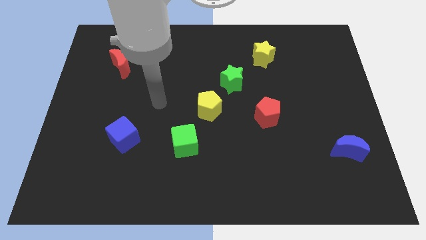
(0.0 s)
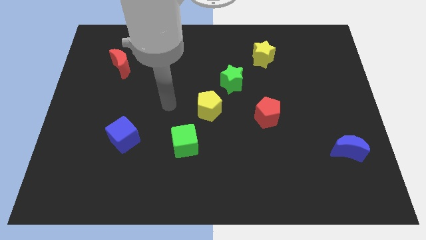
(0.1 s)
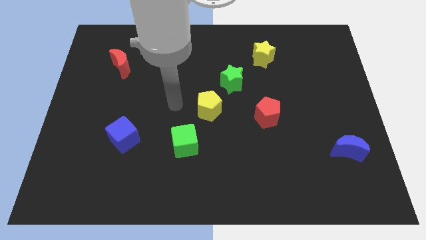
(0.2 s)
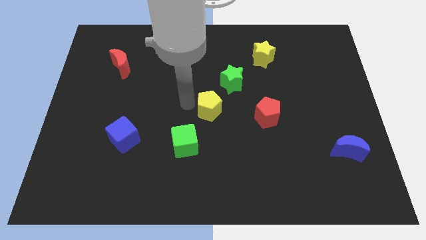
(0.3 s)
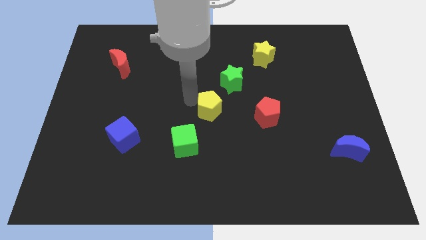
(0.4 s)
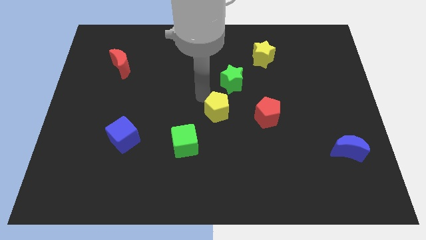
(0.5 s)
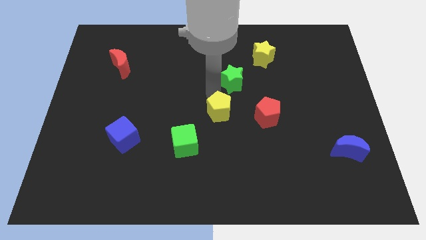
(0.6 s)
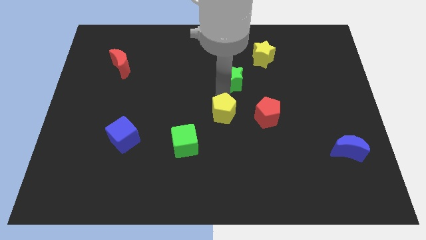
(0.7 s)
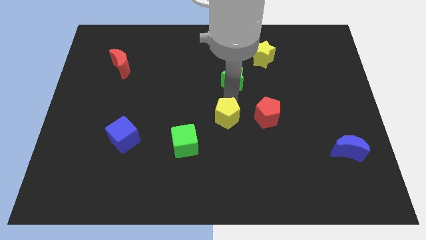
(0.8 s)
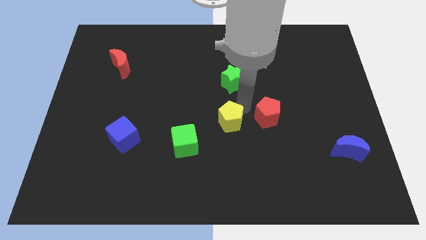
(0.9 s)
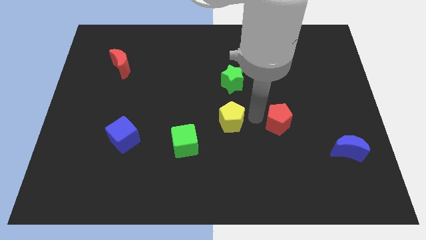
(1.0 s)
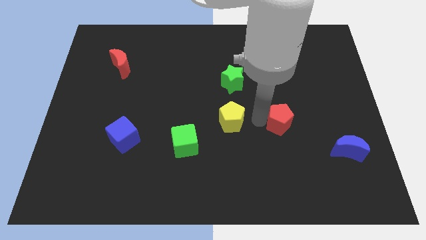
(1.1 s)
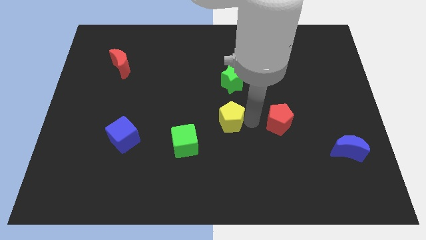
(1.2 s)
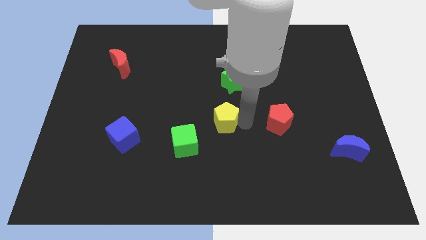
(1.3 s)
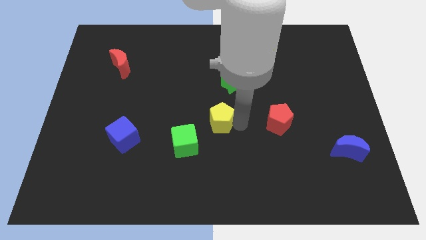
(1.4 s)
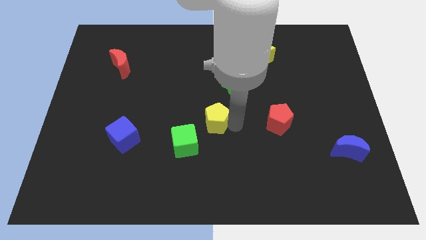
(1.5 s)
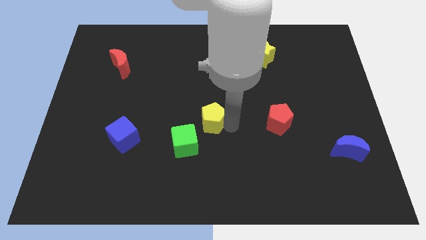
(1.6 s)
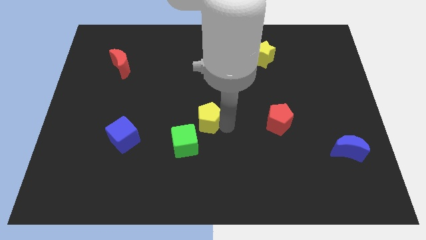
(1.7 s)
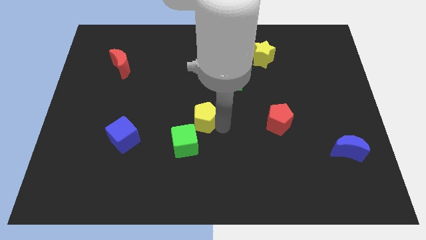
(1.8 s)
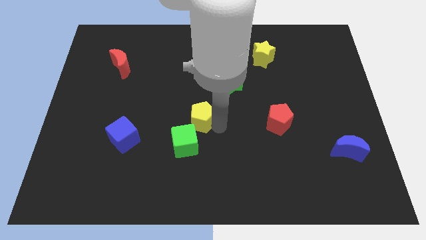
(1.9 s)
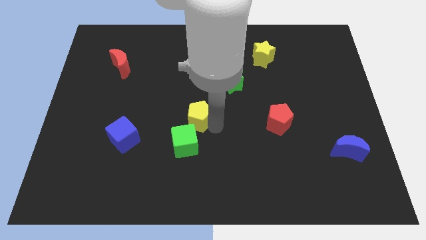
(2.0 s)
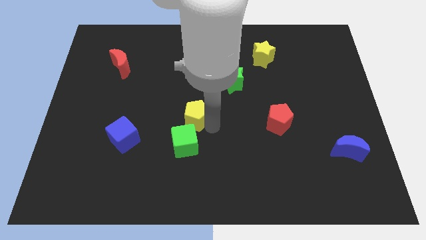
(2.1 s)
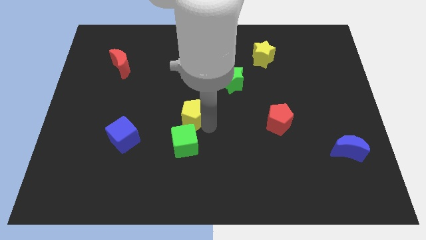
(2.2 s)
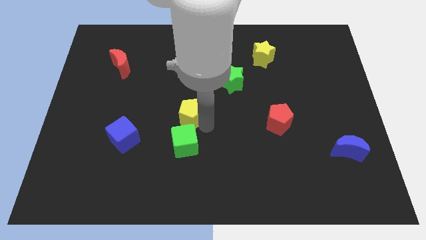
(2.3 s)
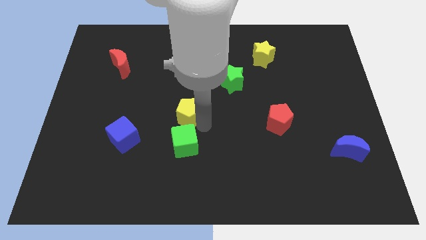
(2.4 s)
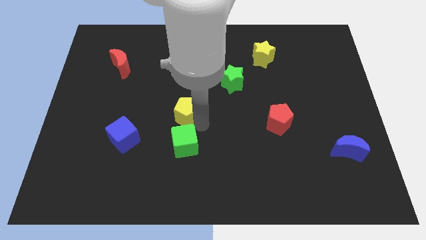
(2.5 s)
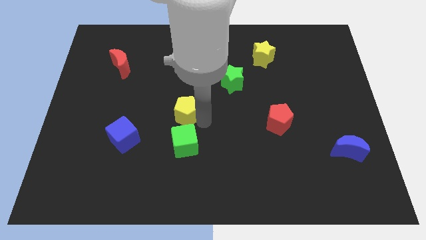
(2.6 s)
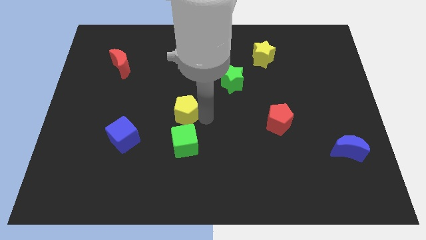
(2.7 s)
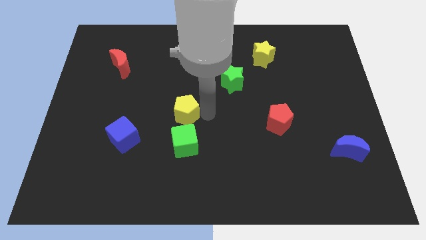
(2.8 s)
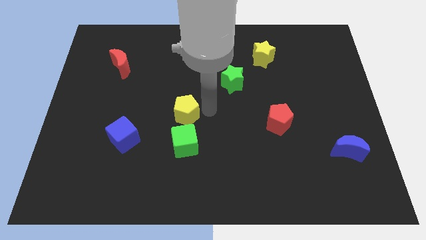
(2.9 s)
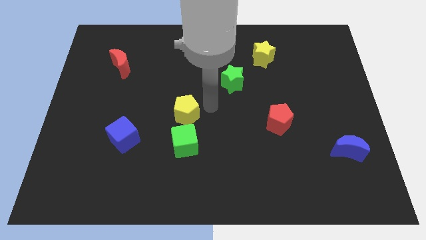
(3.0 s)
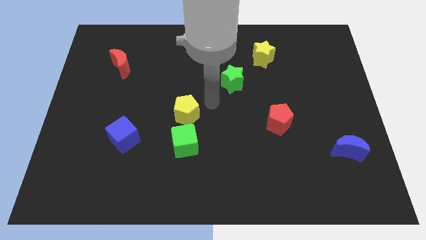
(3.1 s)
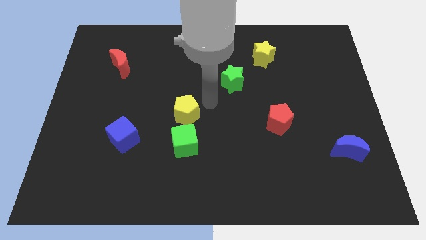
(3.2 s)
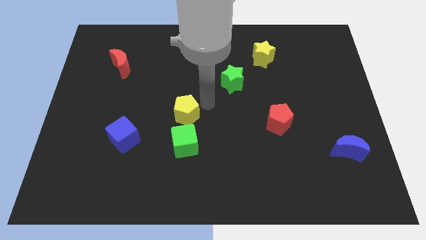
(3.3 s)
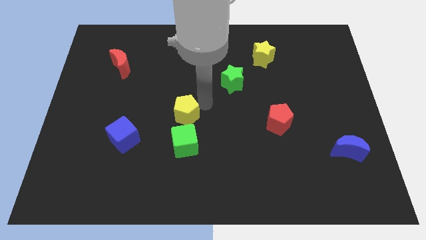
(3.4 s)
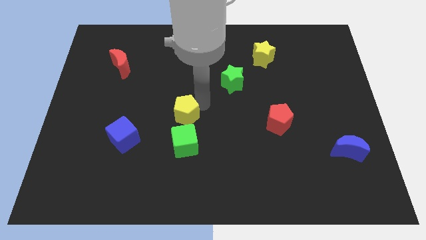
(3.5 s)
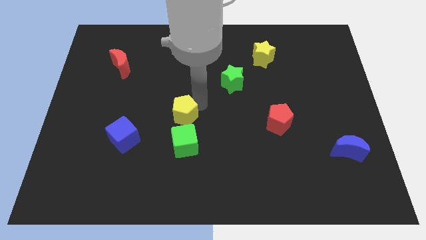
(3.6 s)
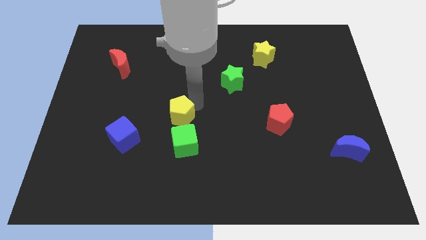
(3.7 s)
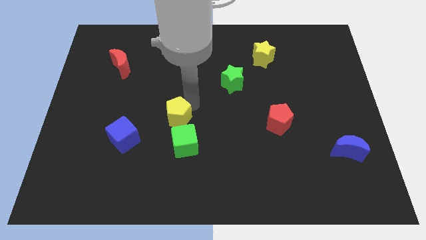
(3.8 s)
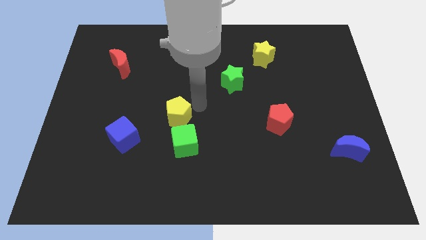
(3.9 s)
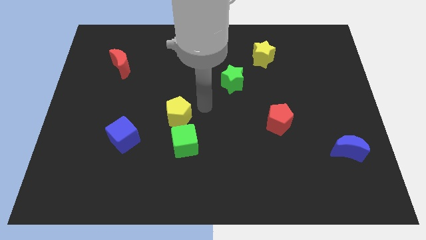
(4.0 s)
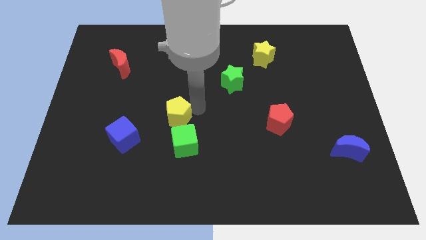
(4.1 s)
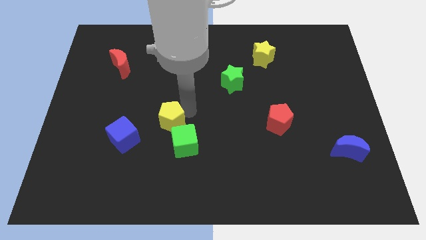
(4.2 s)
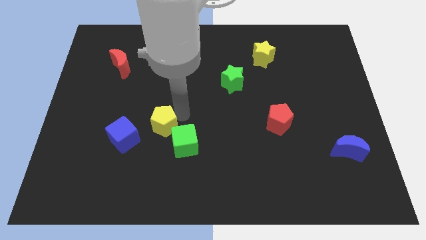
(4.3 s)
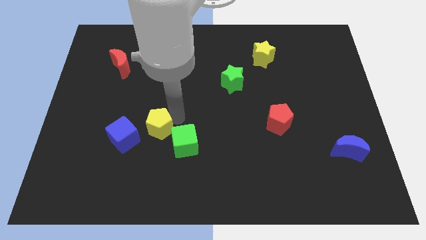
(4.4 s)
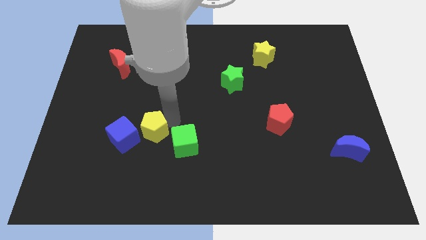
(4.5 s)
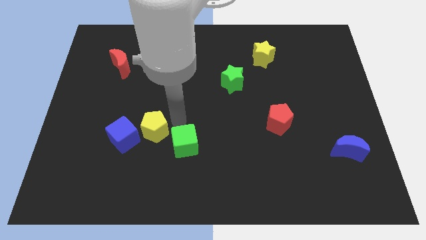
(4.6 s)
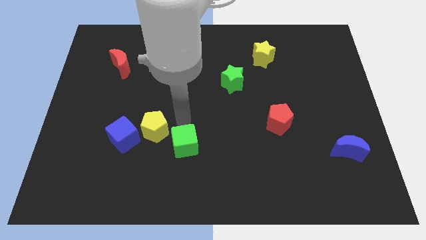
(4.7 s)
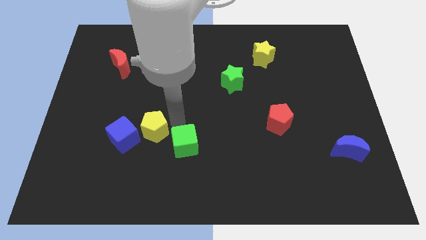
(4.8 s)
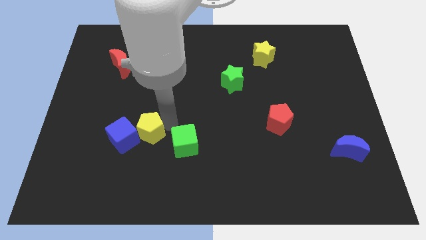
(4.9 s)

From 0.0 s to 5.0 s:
slide the yellow pentagon towards the blue cube

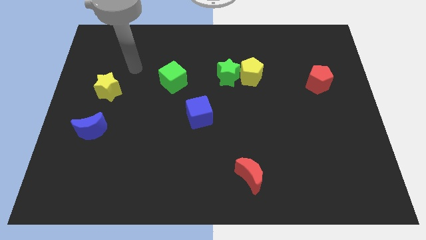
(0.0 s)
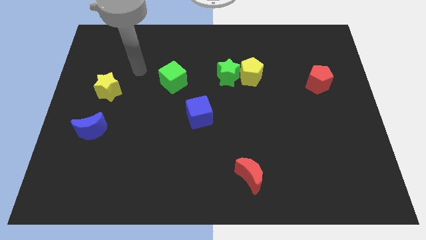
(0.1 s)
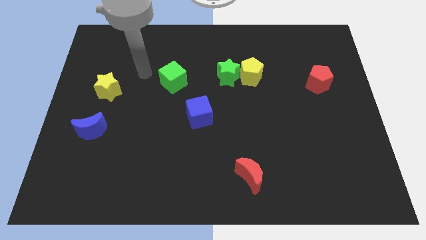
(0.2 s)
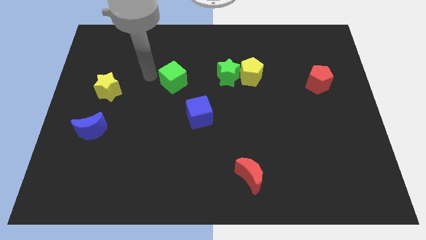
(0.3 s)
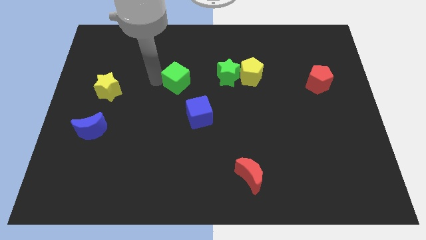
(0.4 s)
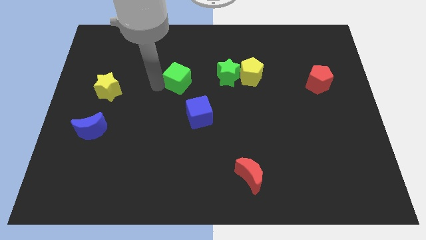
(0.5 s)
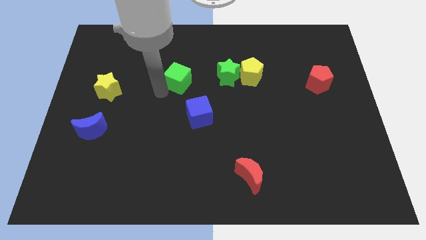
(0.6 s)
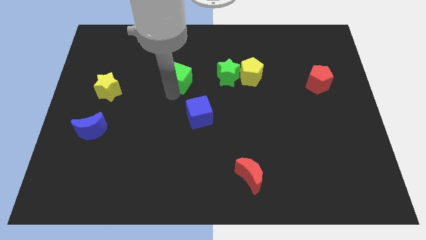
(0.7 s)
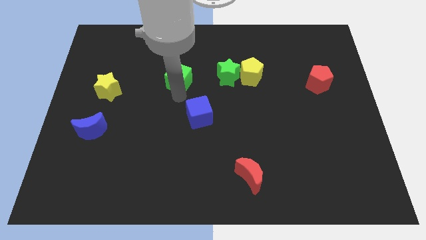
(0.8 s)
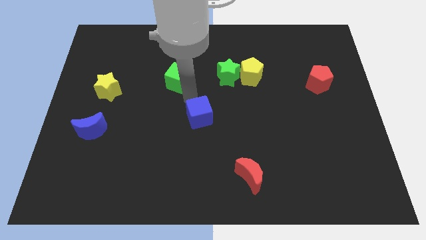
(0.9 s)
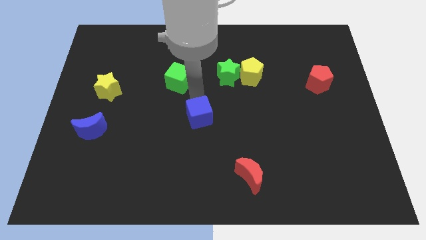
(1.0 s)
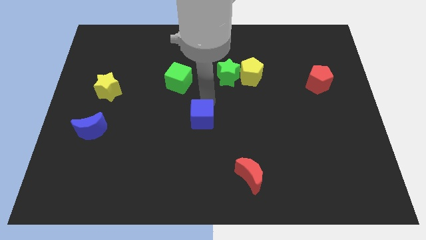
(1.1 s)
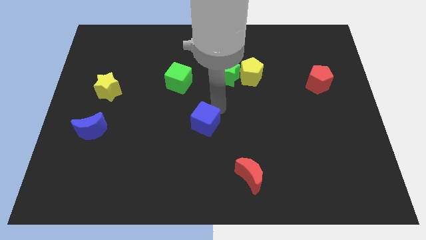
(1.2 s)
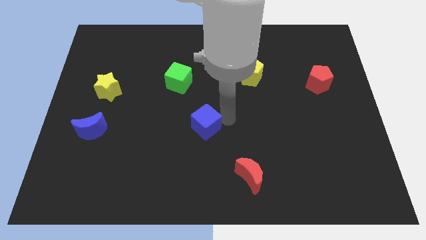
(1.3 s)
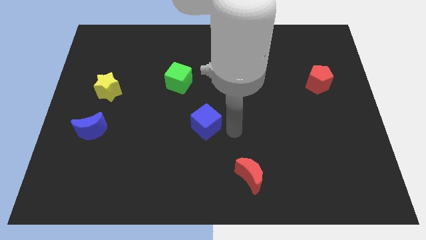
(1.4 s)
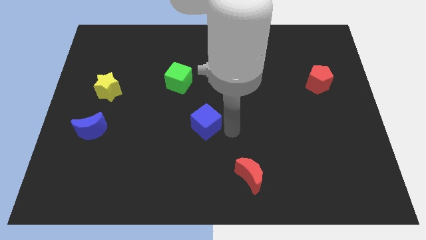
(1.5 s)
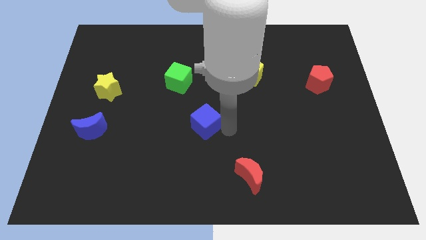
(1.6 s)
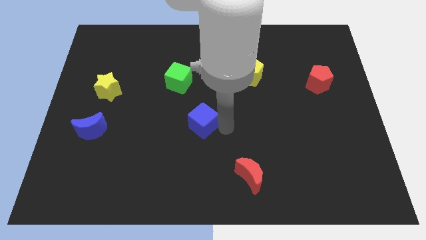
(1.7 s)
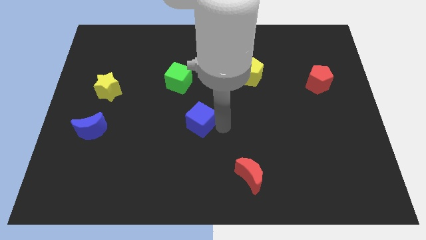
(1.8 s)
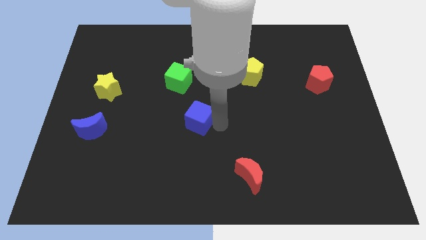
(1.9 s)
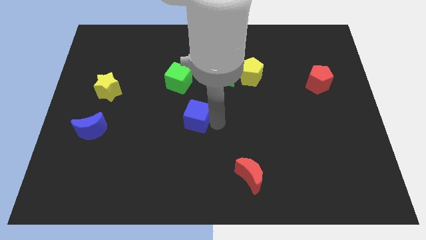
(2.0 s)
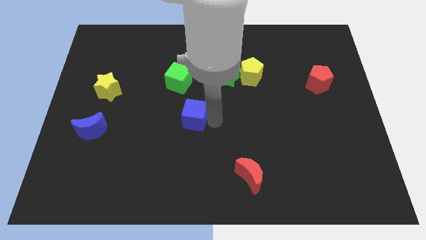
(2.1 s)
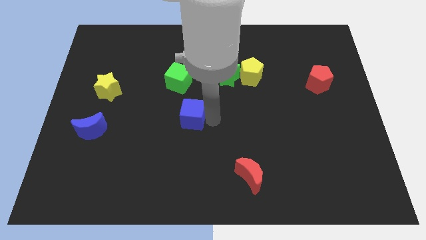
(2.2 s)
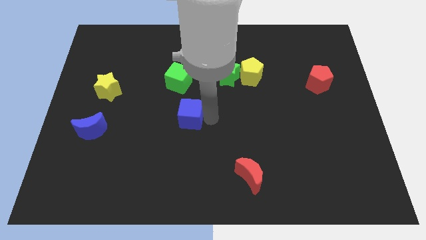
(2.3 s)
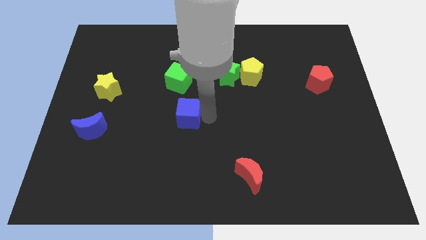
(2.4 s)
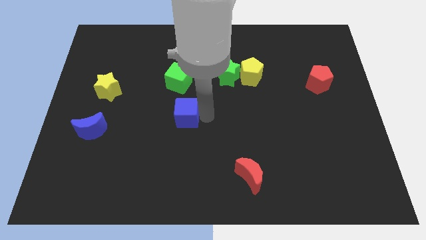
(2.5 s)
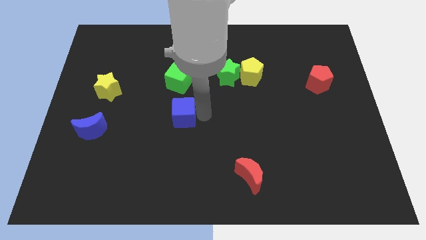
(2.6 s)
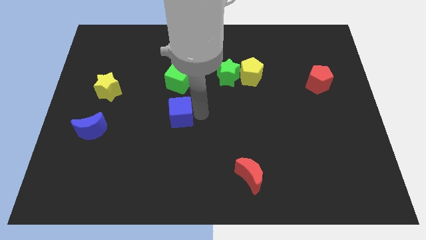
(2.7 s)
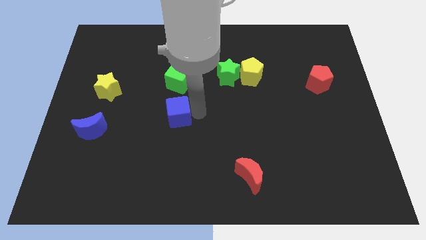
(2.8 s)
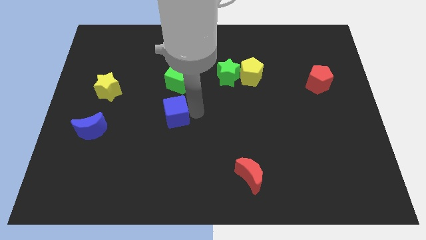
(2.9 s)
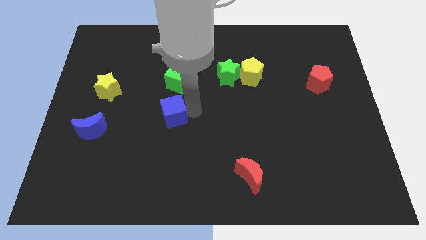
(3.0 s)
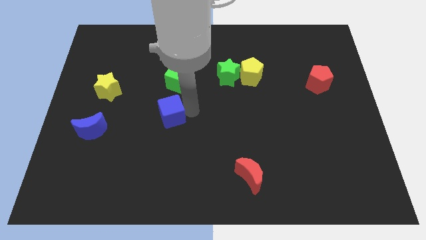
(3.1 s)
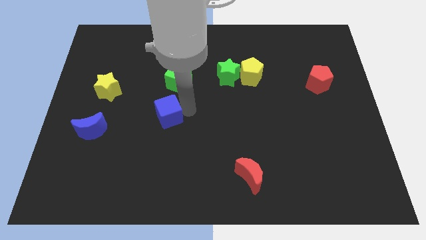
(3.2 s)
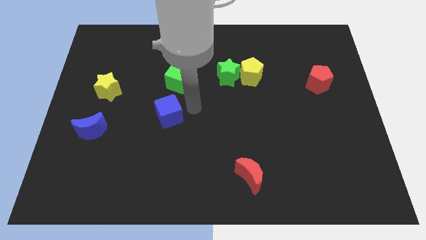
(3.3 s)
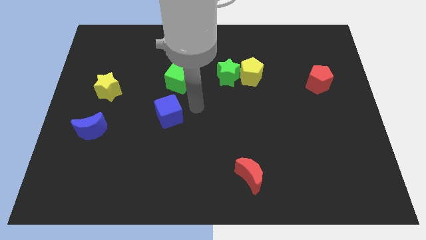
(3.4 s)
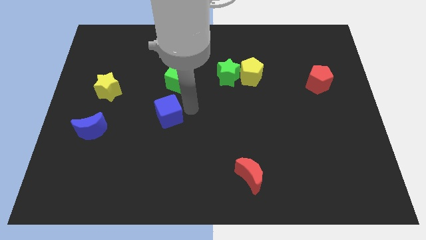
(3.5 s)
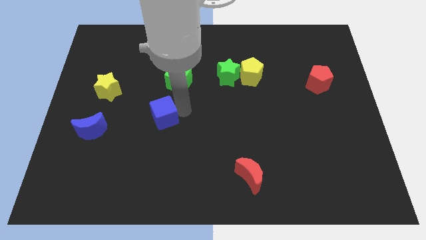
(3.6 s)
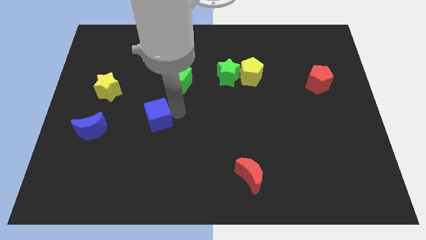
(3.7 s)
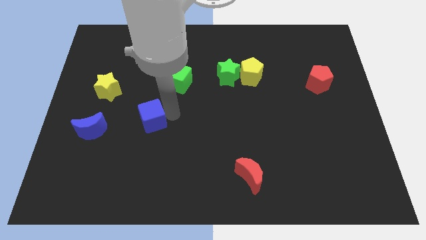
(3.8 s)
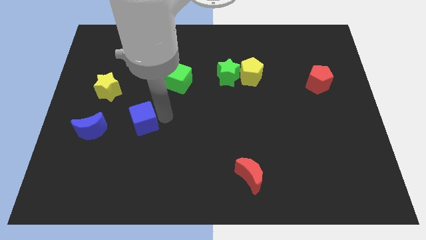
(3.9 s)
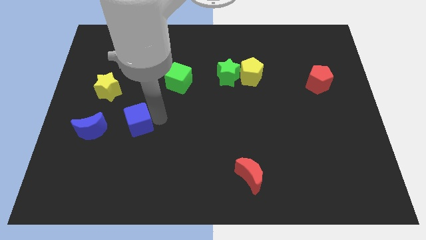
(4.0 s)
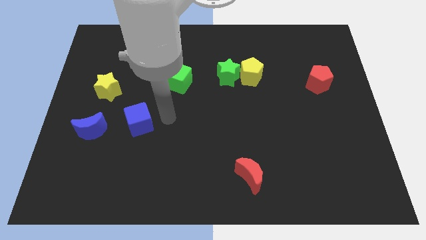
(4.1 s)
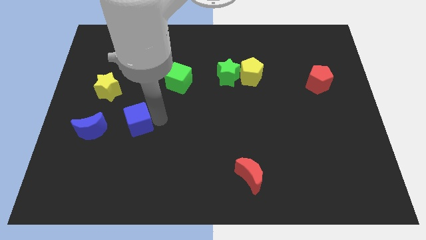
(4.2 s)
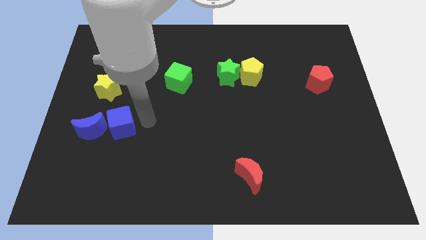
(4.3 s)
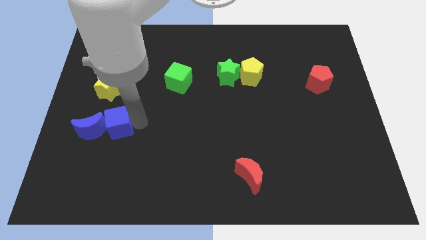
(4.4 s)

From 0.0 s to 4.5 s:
move the blue cube next to the blue moon
